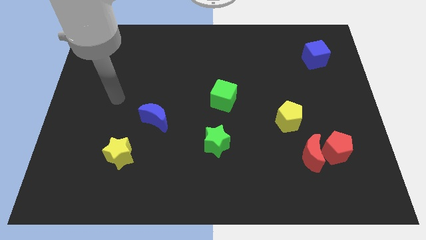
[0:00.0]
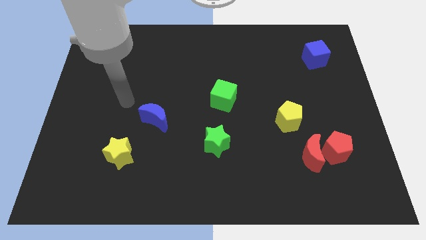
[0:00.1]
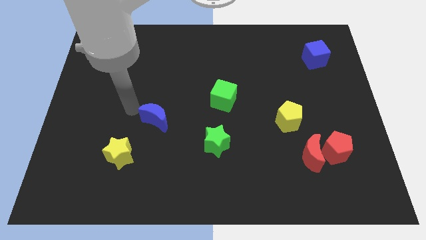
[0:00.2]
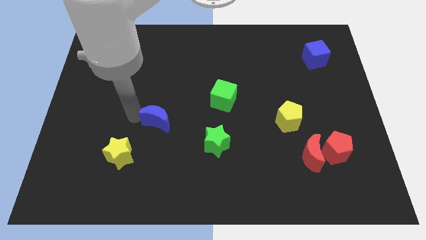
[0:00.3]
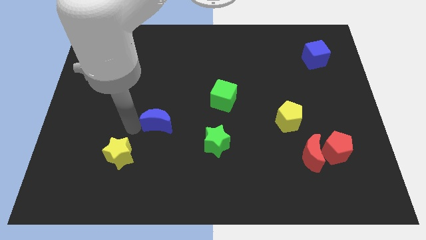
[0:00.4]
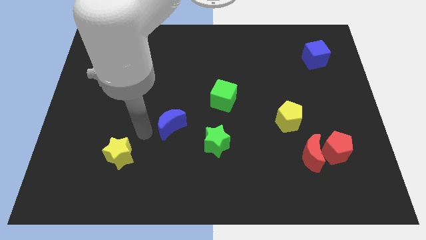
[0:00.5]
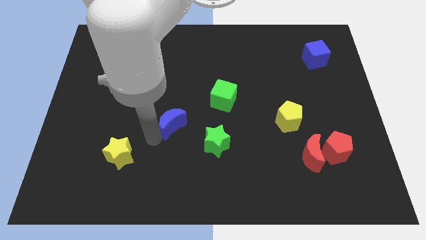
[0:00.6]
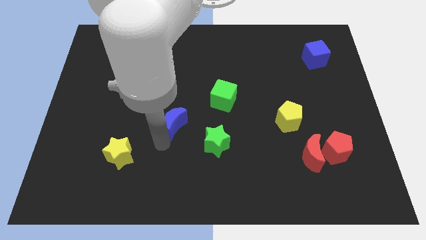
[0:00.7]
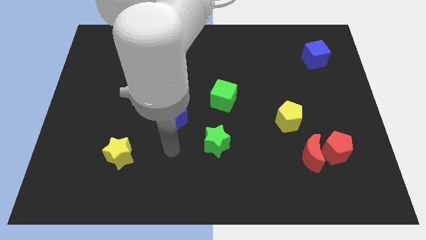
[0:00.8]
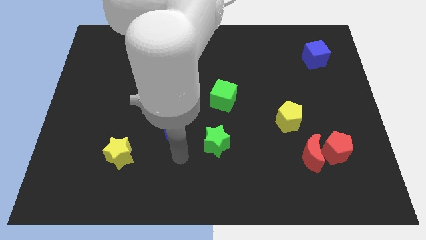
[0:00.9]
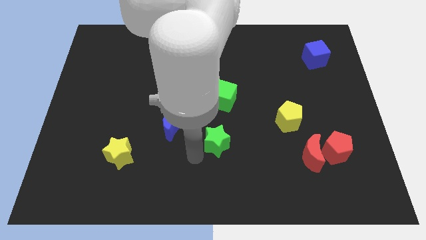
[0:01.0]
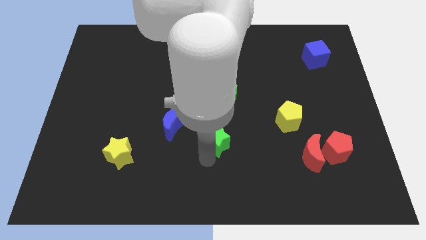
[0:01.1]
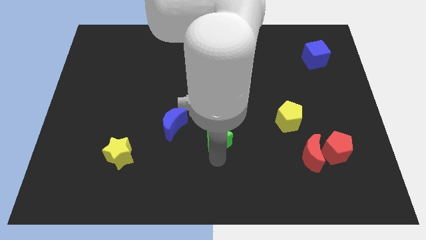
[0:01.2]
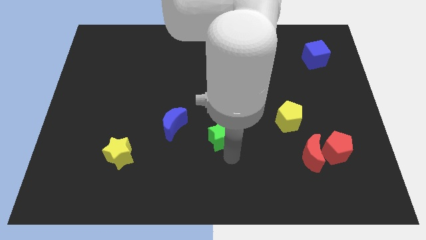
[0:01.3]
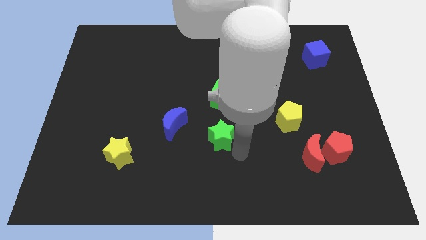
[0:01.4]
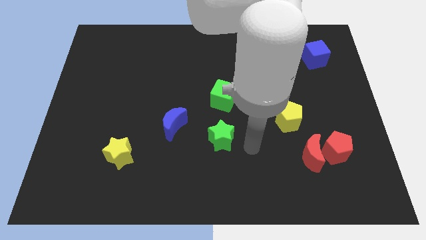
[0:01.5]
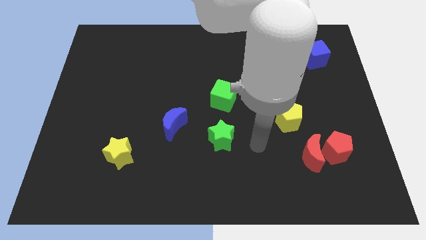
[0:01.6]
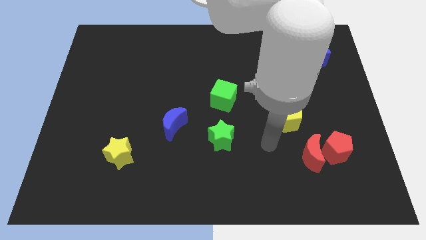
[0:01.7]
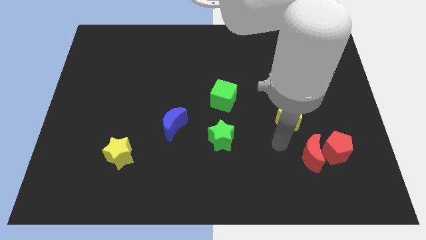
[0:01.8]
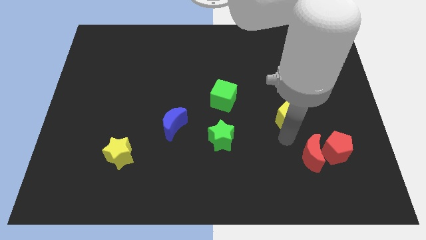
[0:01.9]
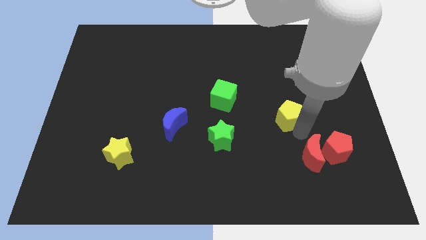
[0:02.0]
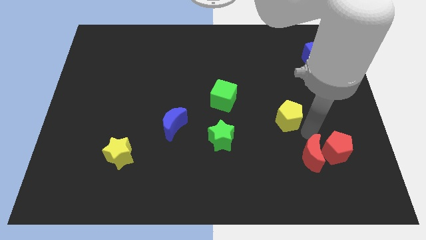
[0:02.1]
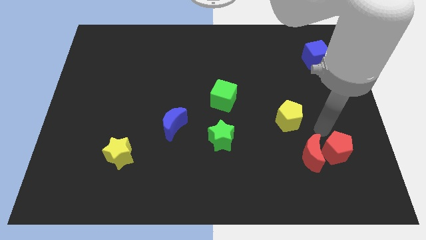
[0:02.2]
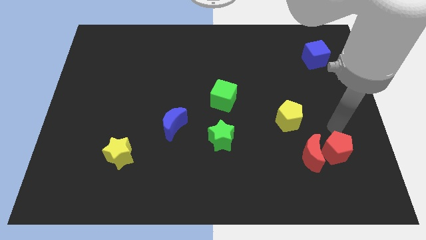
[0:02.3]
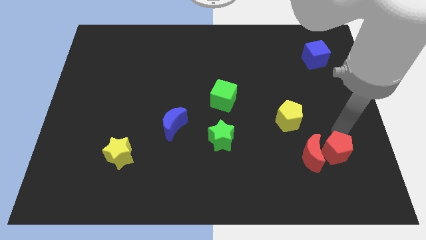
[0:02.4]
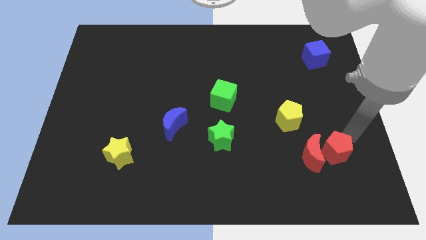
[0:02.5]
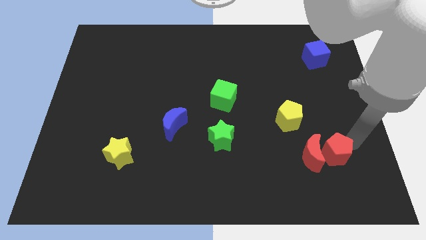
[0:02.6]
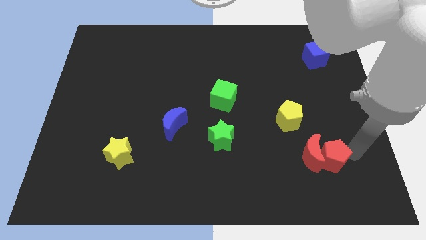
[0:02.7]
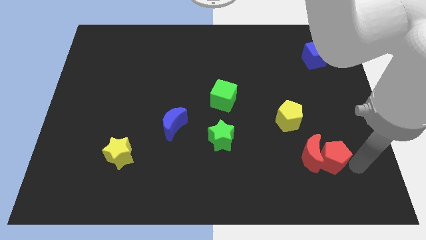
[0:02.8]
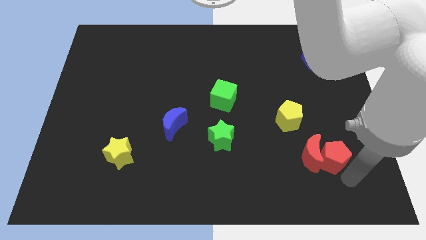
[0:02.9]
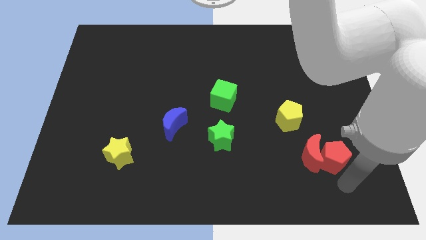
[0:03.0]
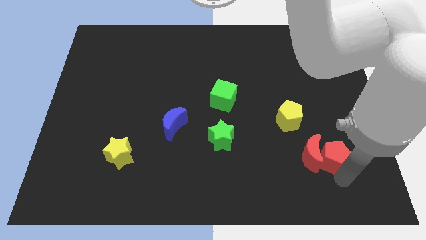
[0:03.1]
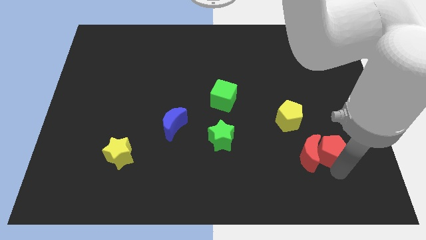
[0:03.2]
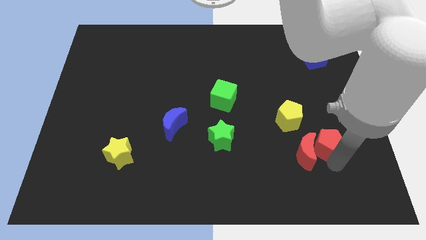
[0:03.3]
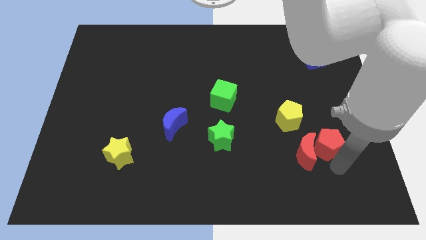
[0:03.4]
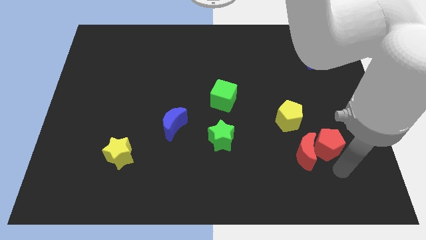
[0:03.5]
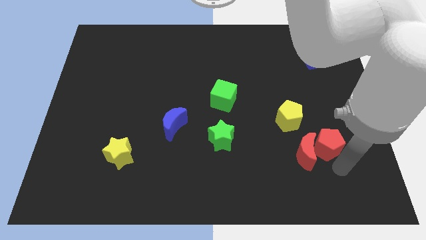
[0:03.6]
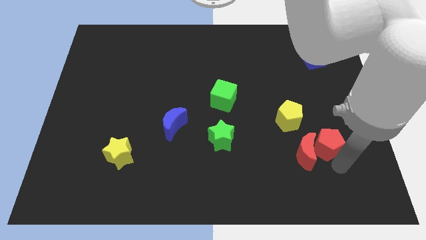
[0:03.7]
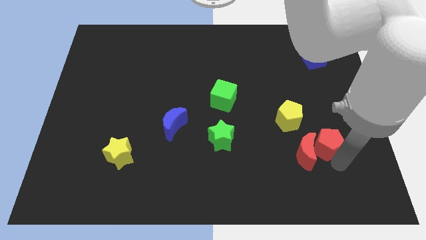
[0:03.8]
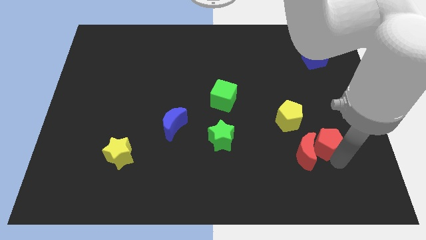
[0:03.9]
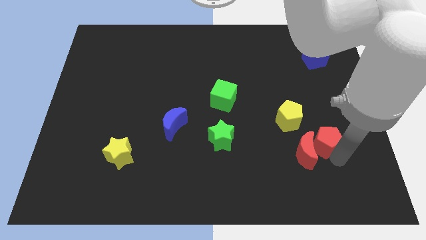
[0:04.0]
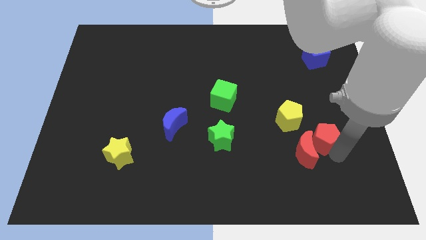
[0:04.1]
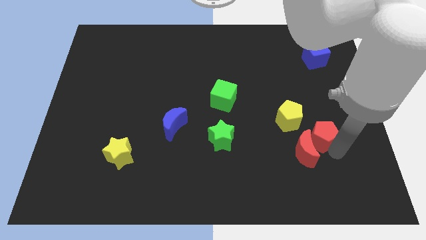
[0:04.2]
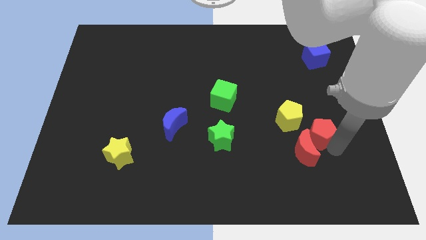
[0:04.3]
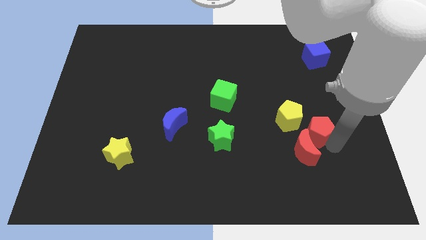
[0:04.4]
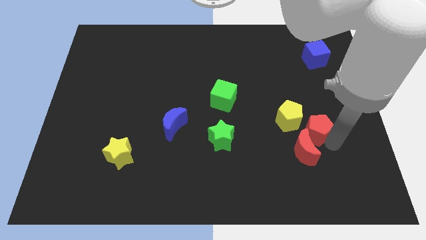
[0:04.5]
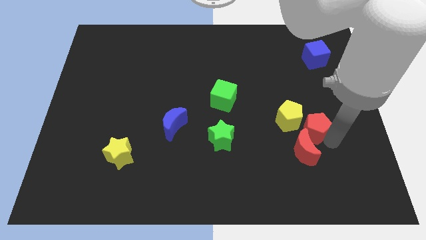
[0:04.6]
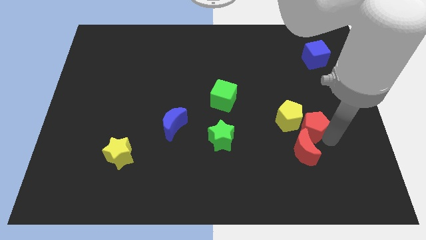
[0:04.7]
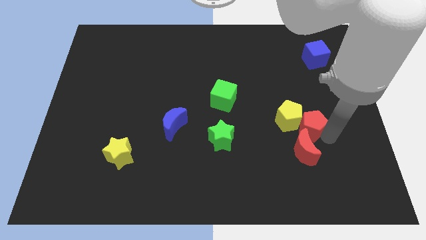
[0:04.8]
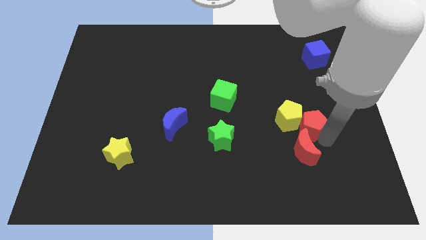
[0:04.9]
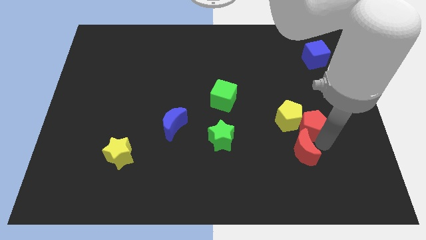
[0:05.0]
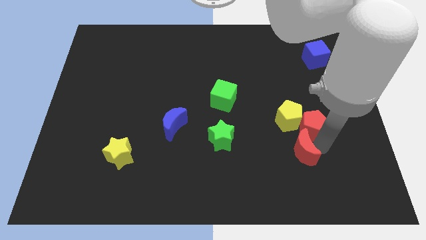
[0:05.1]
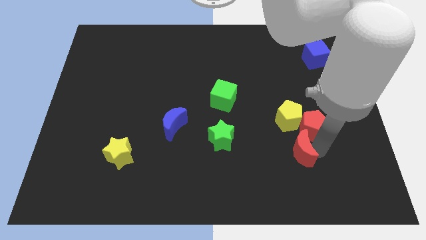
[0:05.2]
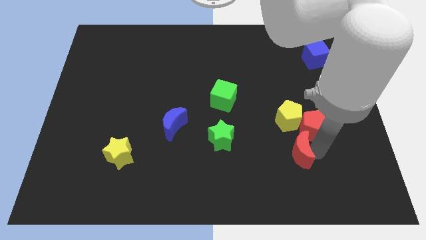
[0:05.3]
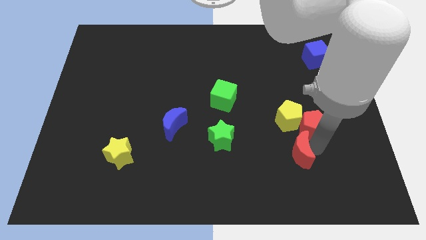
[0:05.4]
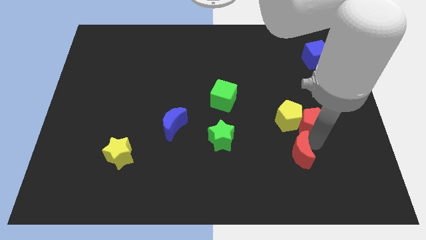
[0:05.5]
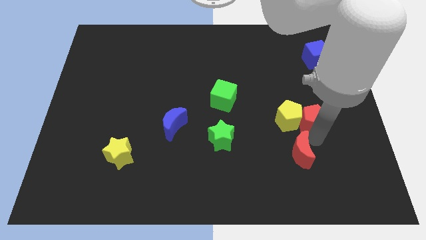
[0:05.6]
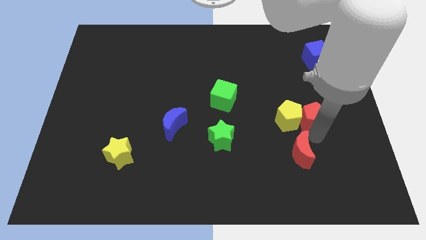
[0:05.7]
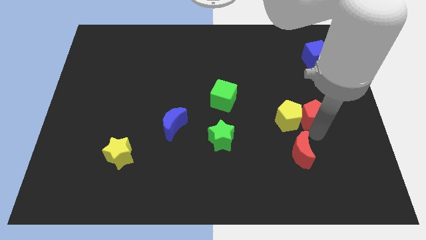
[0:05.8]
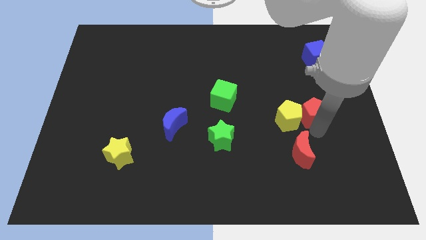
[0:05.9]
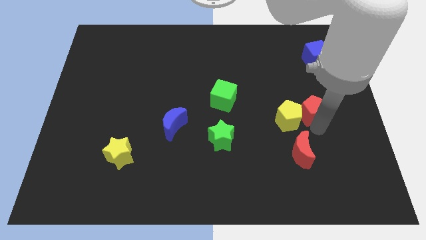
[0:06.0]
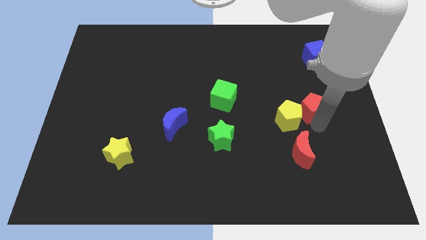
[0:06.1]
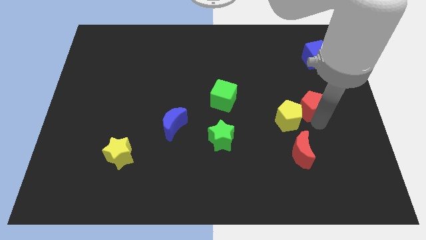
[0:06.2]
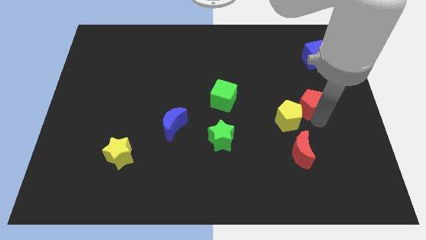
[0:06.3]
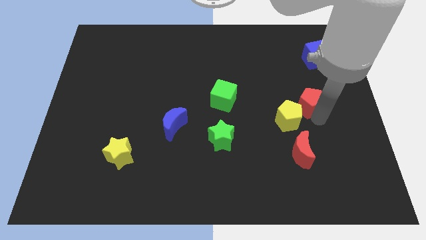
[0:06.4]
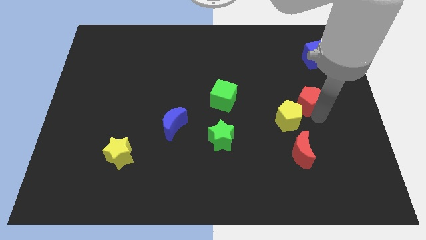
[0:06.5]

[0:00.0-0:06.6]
move the red pentagon above the yellow pentagon

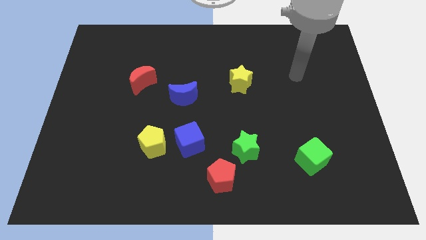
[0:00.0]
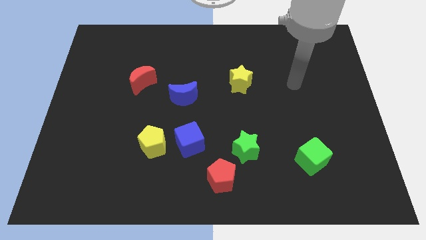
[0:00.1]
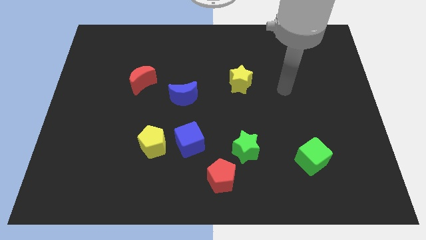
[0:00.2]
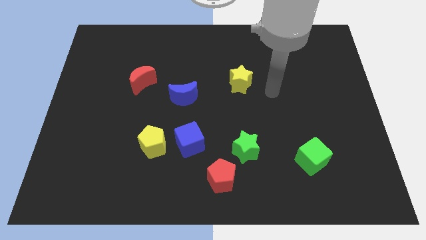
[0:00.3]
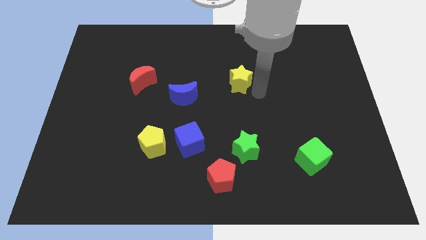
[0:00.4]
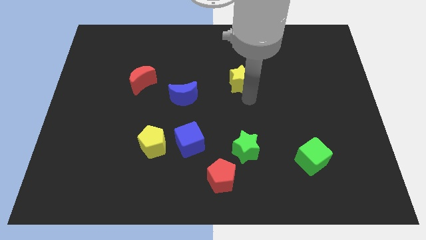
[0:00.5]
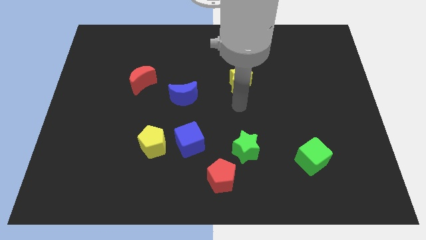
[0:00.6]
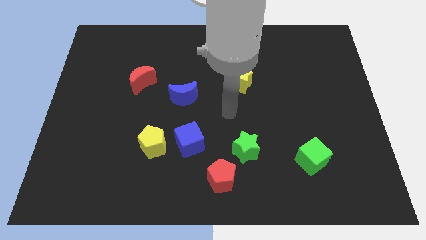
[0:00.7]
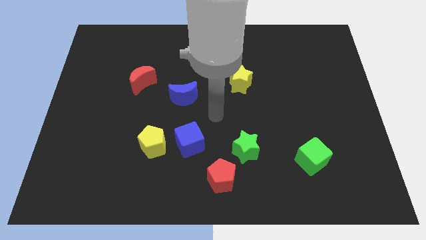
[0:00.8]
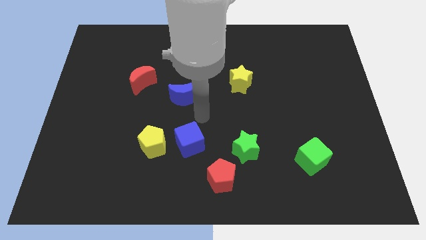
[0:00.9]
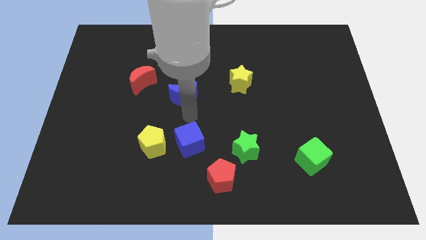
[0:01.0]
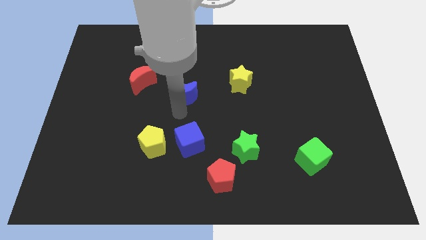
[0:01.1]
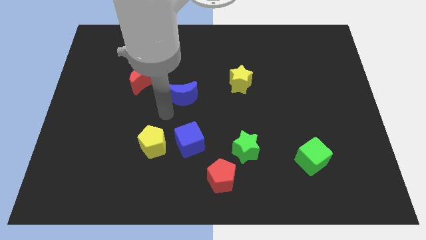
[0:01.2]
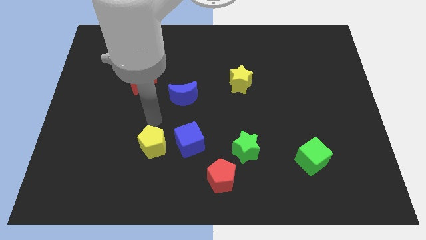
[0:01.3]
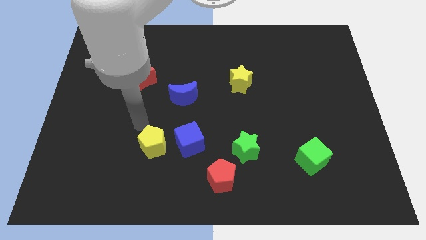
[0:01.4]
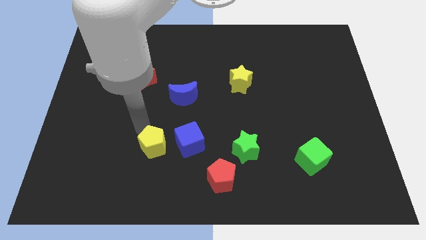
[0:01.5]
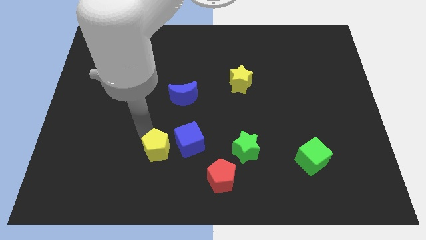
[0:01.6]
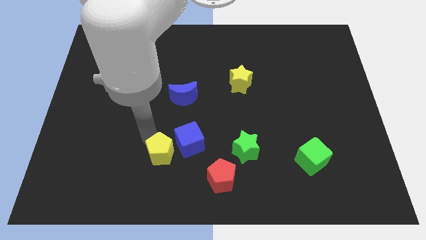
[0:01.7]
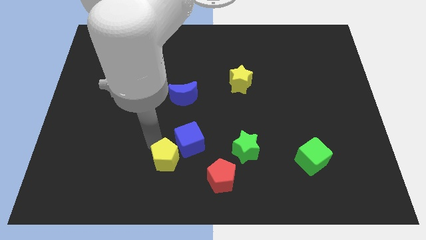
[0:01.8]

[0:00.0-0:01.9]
put the yellow pentagon left of the red pentagon
